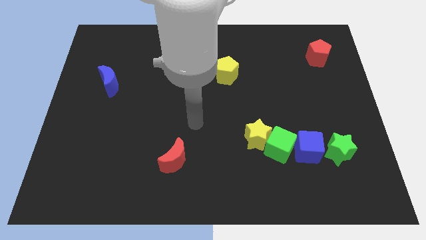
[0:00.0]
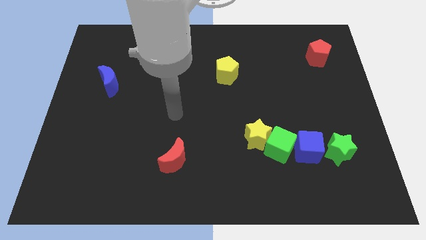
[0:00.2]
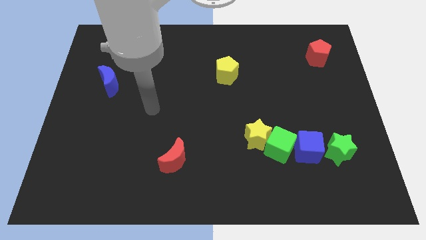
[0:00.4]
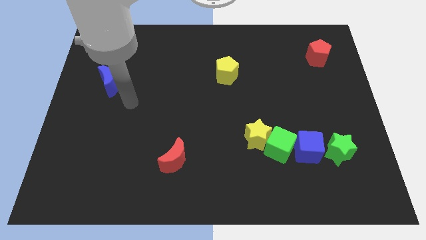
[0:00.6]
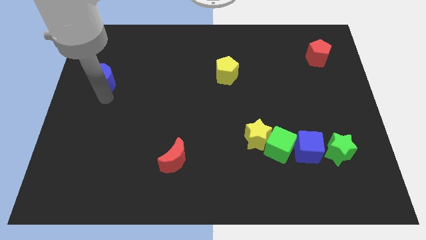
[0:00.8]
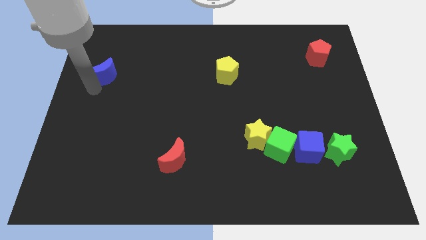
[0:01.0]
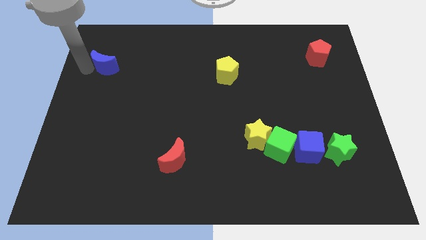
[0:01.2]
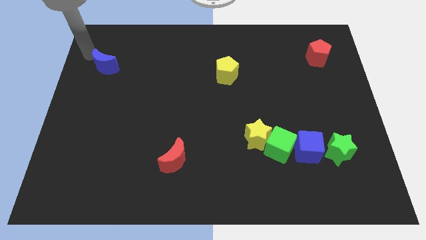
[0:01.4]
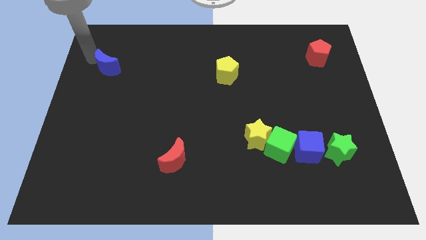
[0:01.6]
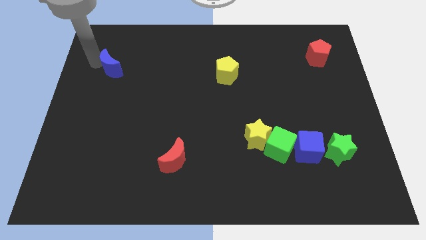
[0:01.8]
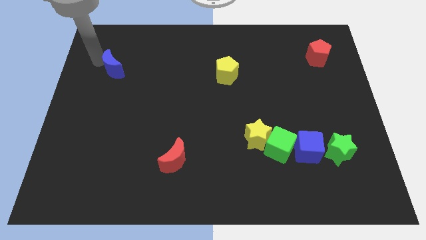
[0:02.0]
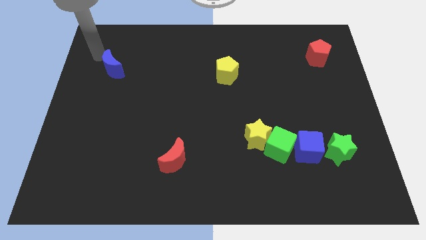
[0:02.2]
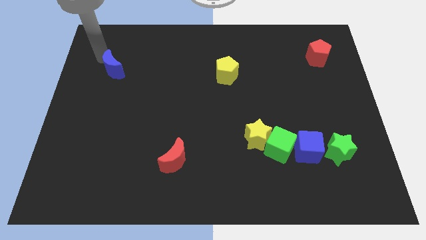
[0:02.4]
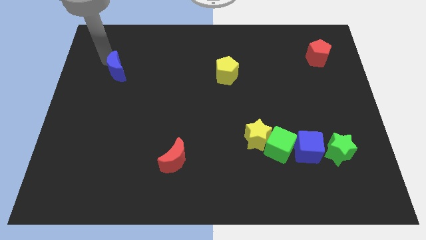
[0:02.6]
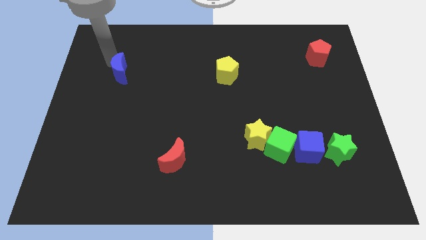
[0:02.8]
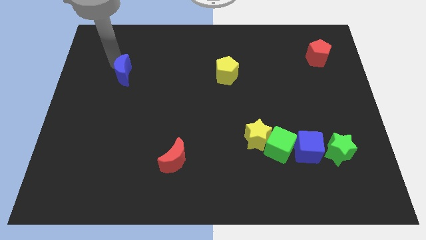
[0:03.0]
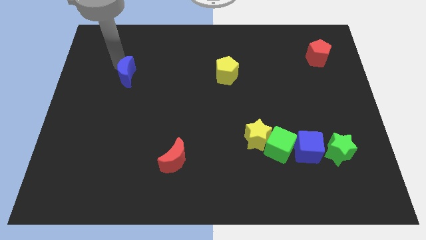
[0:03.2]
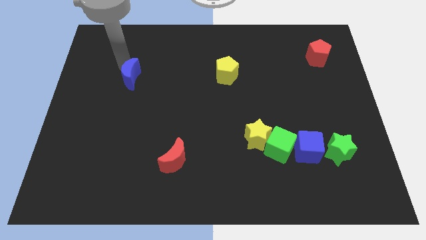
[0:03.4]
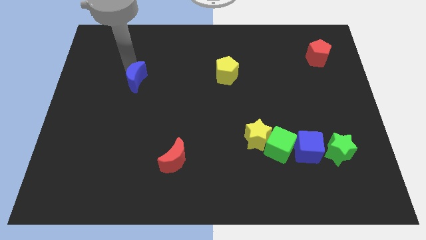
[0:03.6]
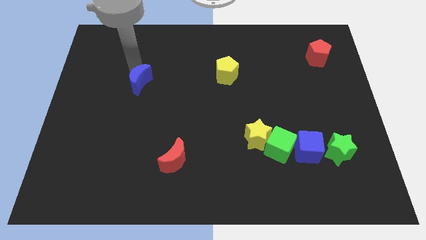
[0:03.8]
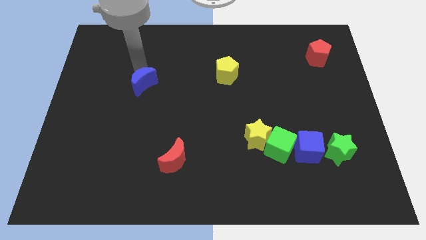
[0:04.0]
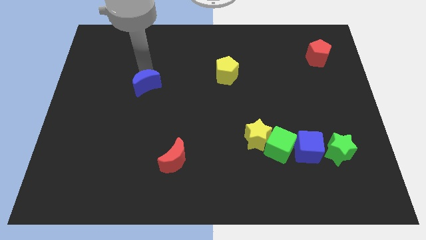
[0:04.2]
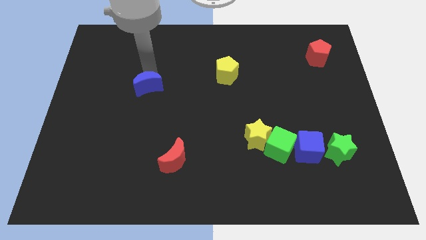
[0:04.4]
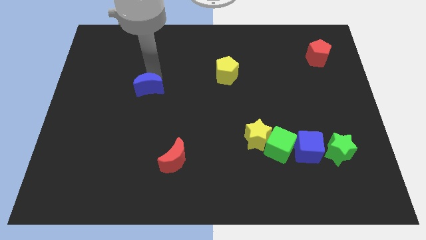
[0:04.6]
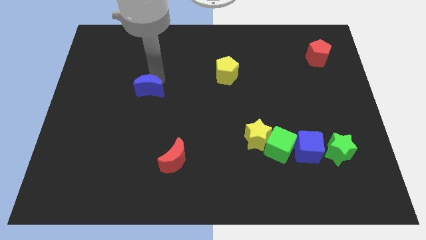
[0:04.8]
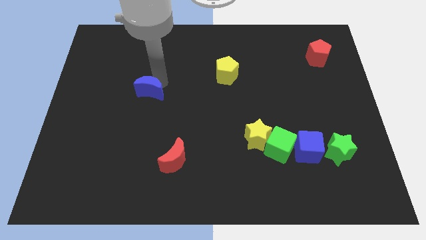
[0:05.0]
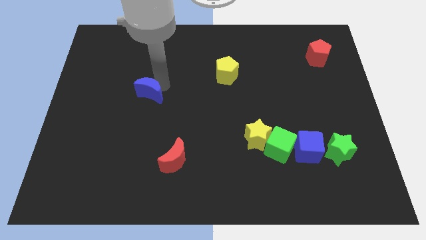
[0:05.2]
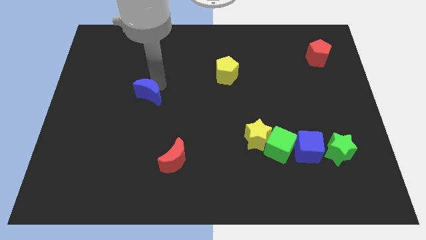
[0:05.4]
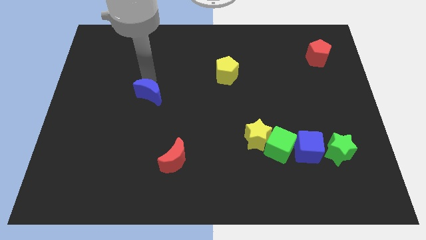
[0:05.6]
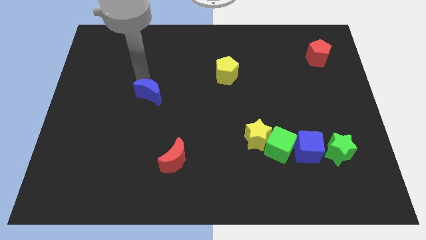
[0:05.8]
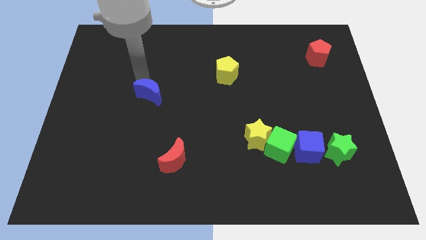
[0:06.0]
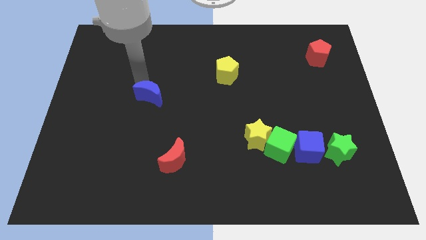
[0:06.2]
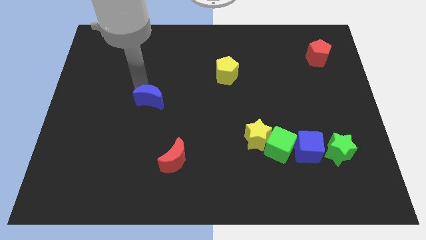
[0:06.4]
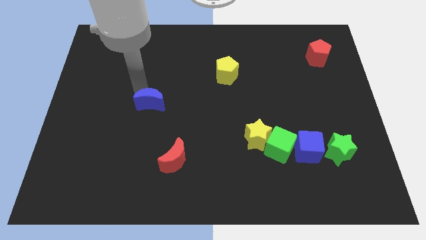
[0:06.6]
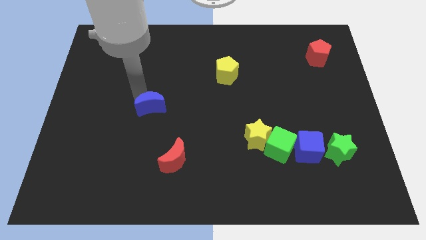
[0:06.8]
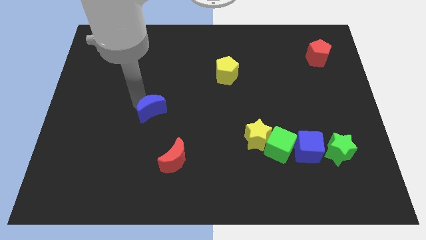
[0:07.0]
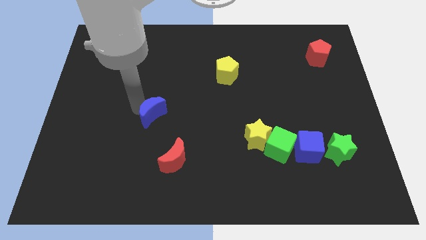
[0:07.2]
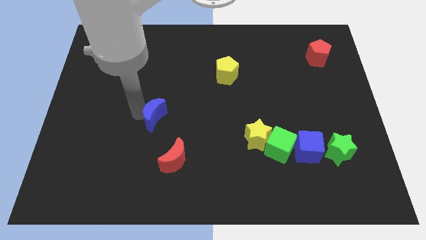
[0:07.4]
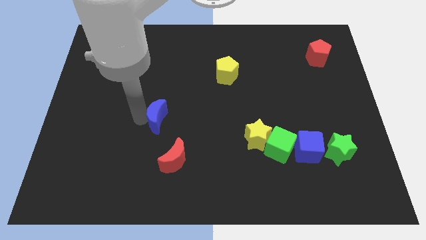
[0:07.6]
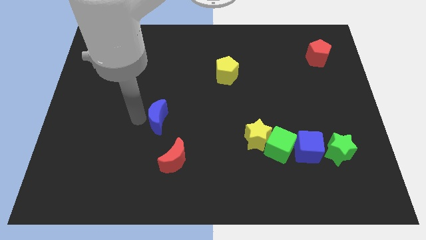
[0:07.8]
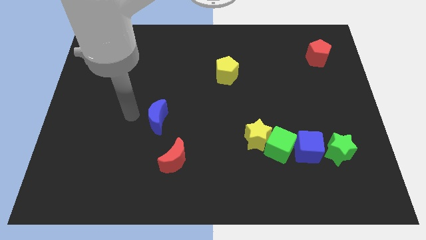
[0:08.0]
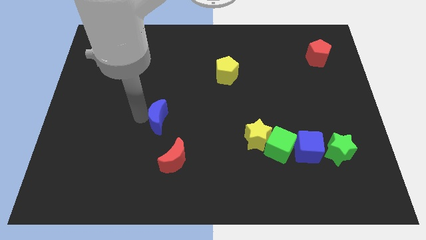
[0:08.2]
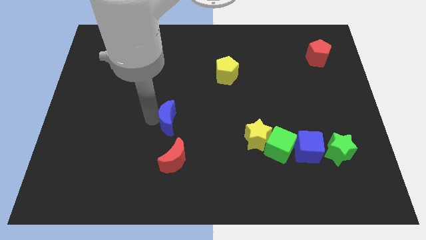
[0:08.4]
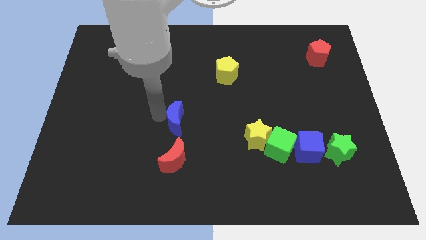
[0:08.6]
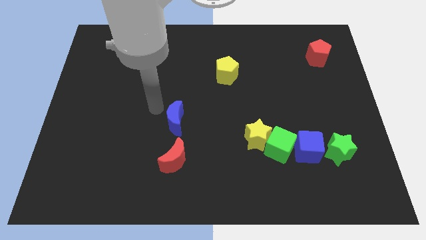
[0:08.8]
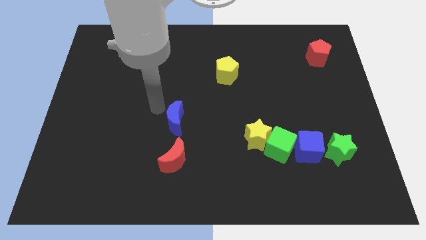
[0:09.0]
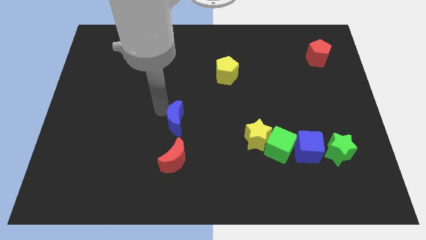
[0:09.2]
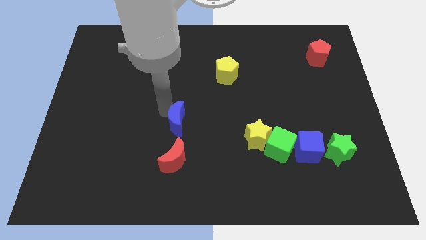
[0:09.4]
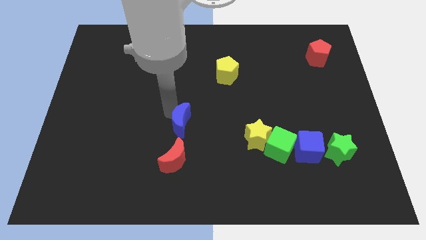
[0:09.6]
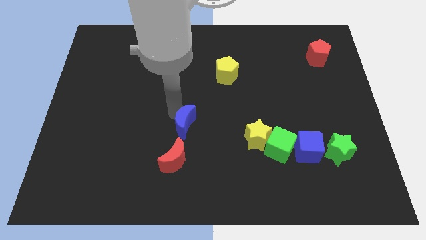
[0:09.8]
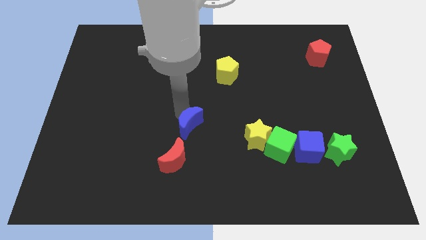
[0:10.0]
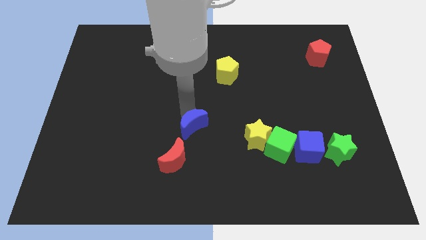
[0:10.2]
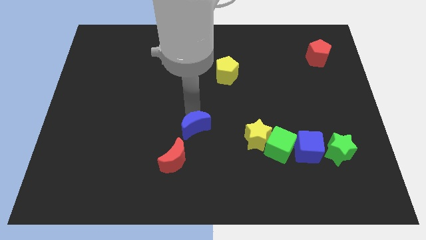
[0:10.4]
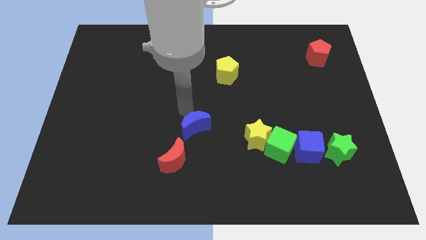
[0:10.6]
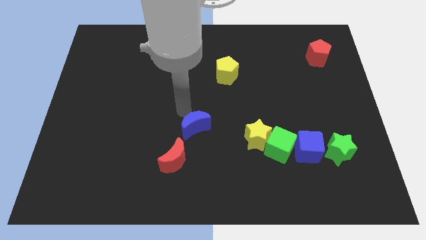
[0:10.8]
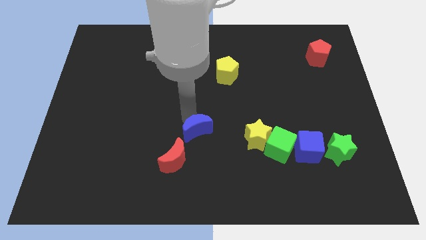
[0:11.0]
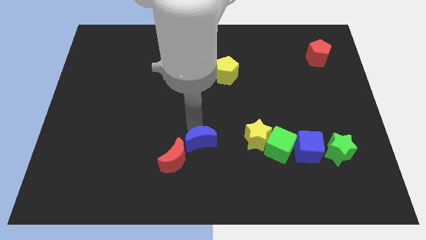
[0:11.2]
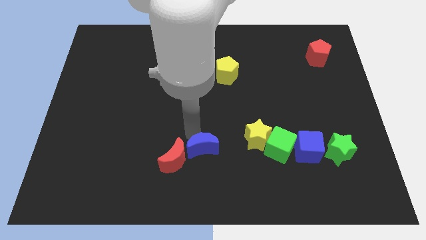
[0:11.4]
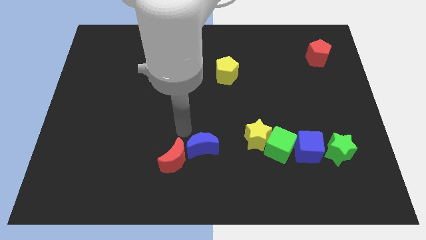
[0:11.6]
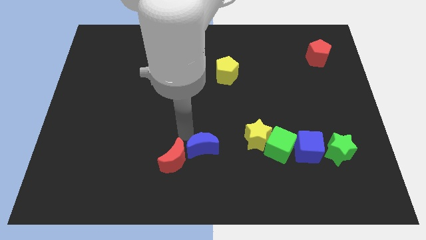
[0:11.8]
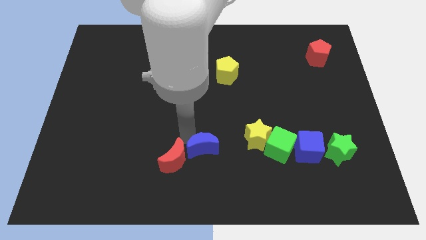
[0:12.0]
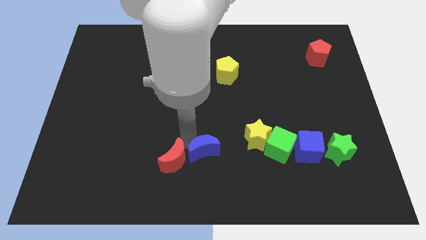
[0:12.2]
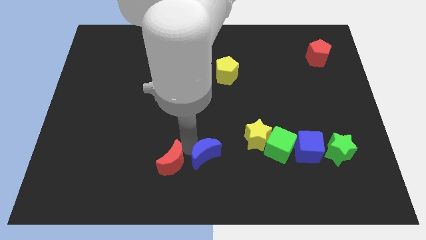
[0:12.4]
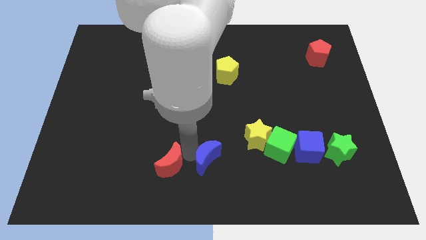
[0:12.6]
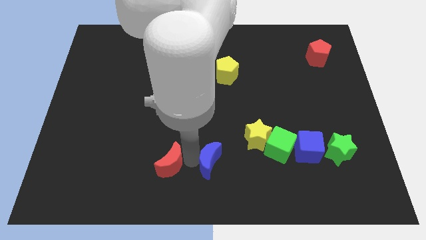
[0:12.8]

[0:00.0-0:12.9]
move the blue moon to the bottom left side of the yellow star

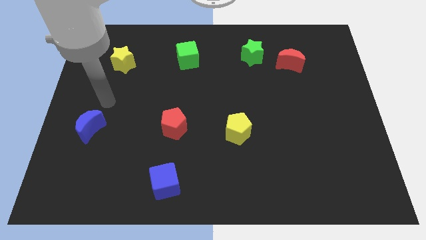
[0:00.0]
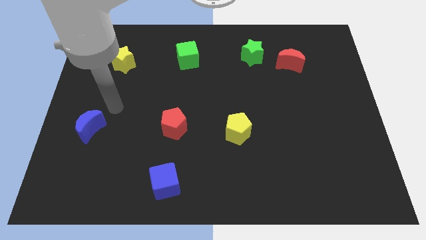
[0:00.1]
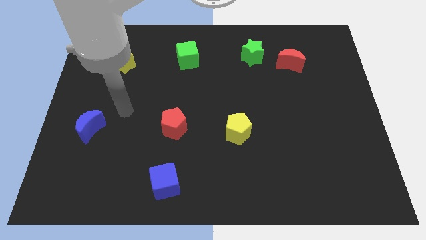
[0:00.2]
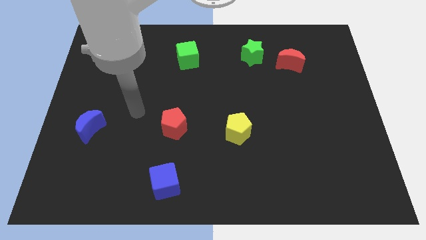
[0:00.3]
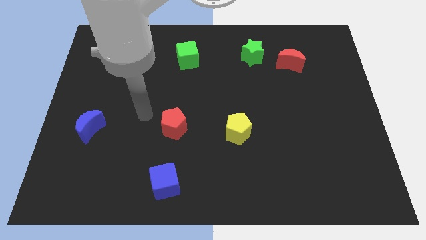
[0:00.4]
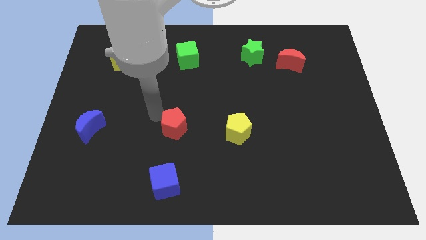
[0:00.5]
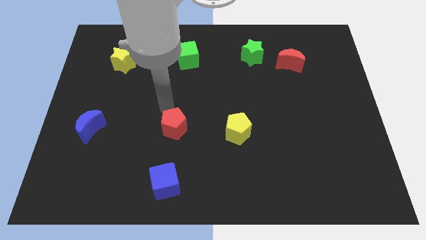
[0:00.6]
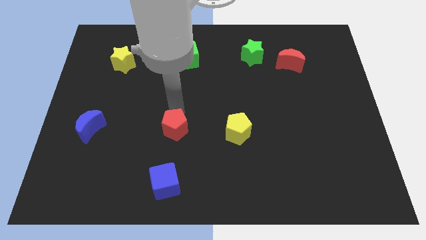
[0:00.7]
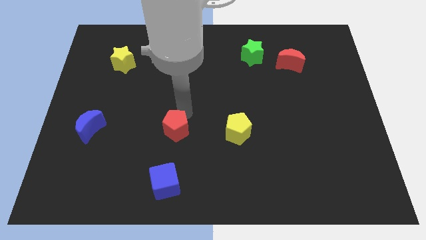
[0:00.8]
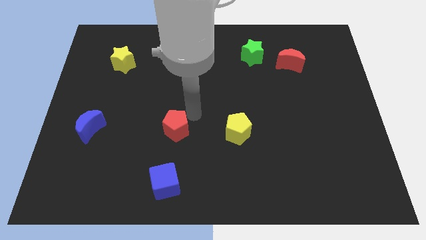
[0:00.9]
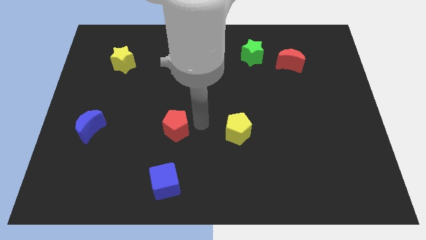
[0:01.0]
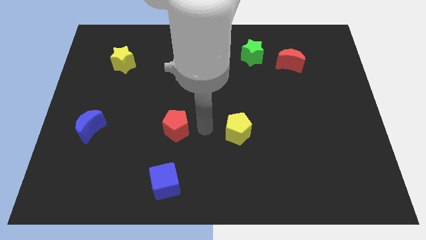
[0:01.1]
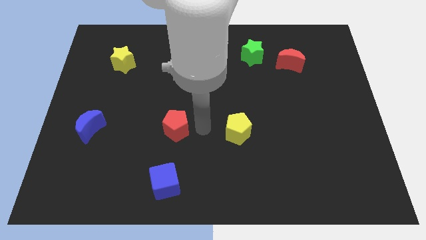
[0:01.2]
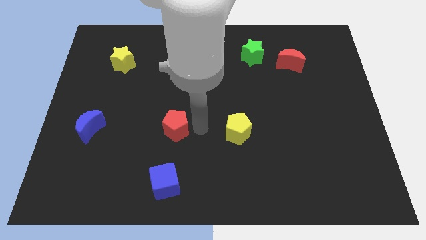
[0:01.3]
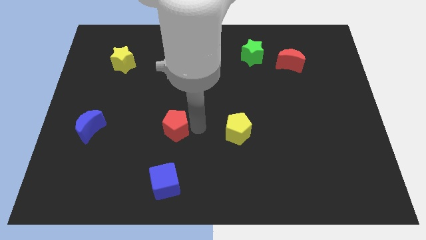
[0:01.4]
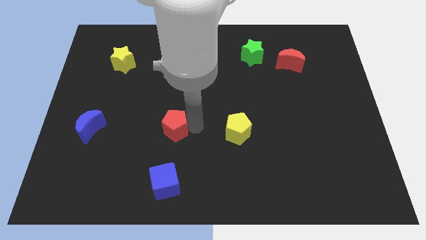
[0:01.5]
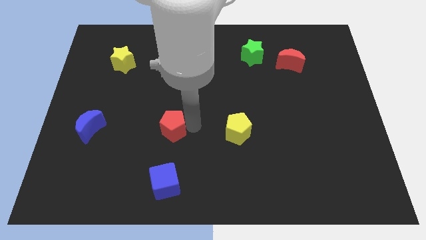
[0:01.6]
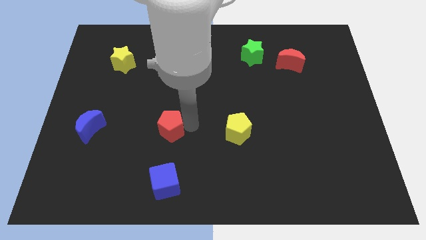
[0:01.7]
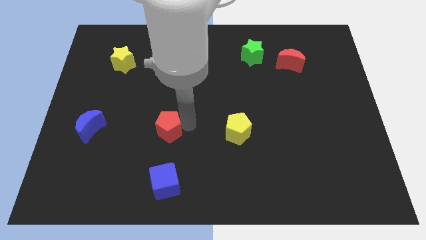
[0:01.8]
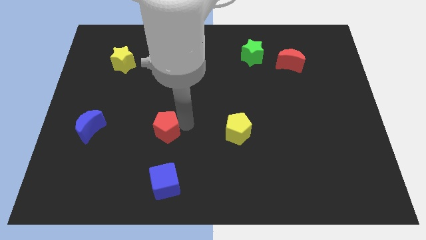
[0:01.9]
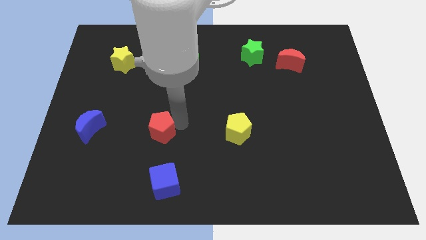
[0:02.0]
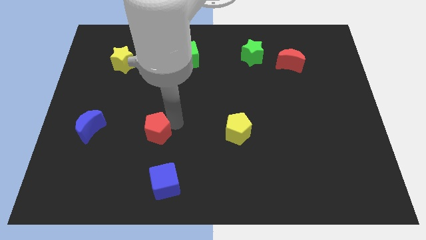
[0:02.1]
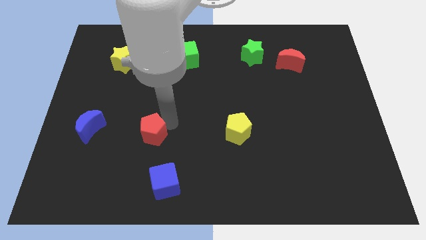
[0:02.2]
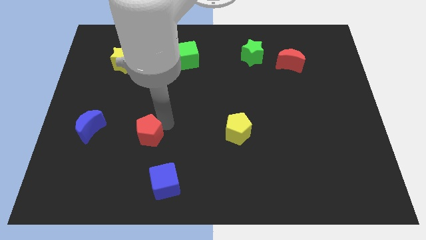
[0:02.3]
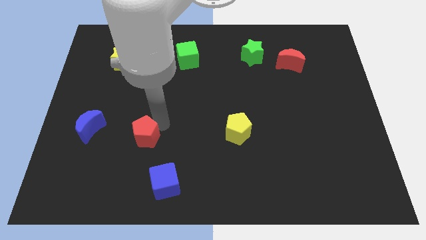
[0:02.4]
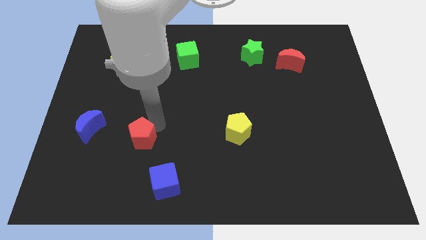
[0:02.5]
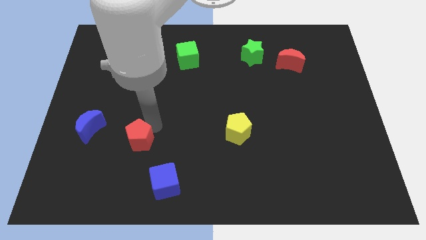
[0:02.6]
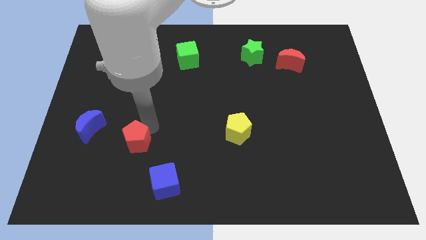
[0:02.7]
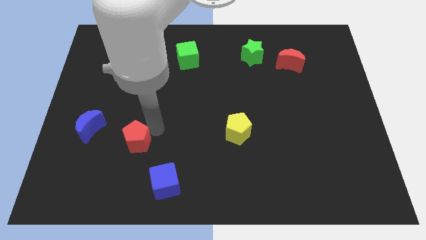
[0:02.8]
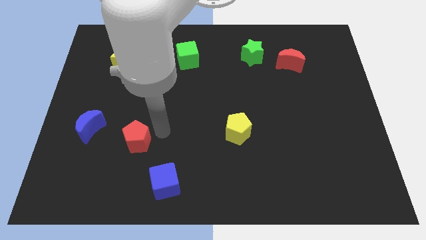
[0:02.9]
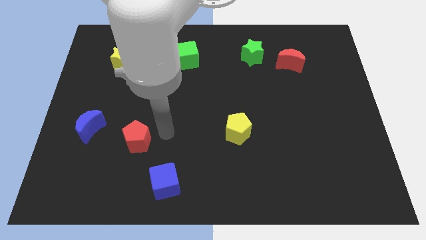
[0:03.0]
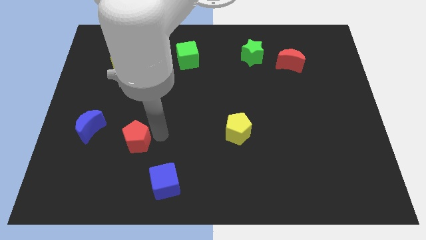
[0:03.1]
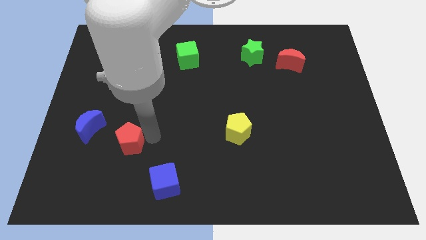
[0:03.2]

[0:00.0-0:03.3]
put the red pentagon diagonally down and to the right of the blue moon
